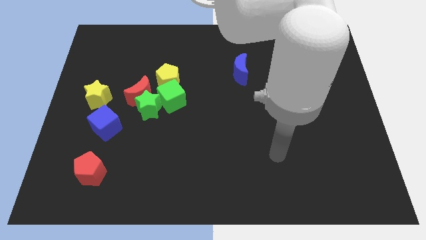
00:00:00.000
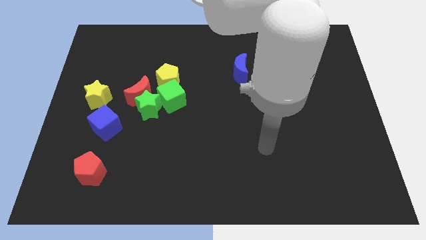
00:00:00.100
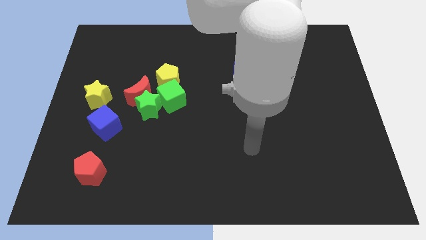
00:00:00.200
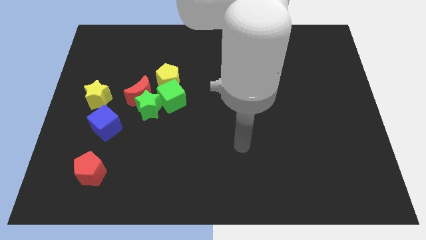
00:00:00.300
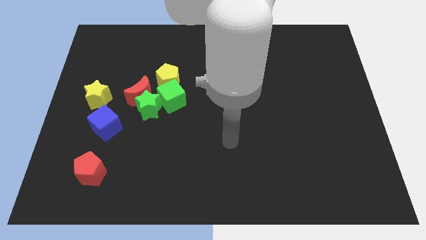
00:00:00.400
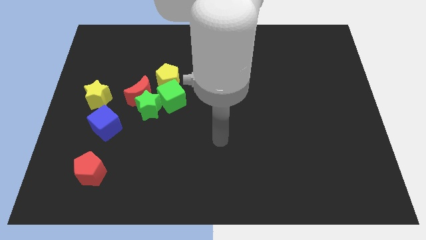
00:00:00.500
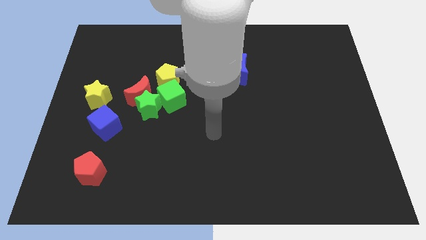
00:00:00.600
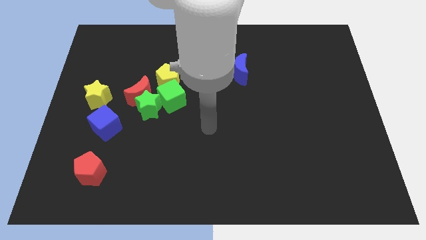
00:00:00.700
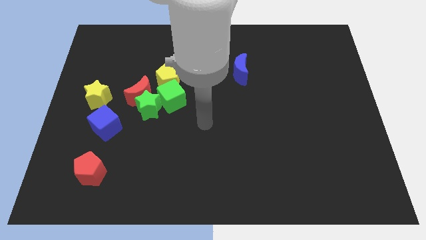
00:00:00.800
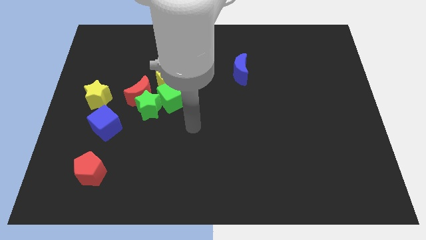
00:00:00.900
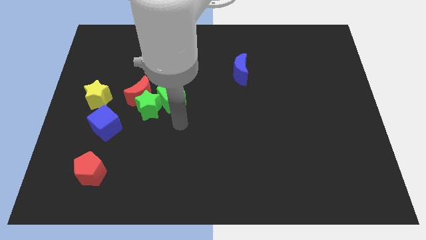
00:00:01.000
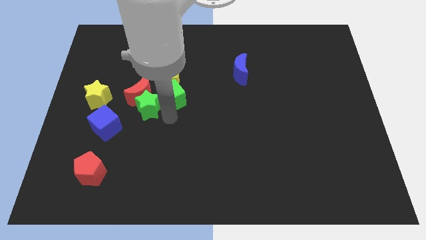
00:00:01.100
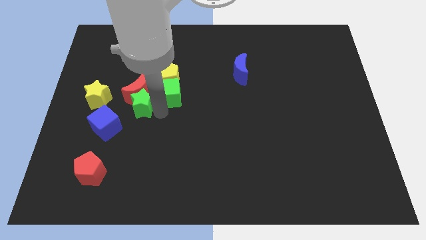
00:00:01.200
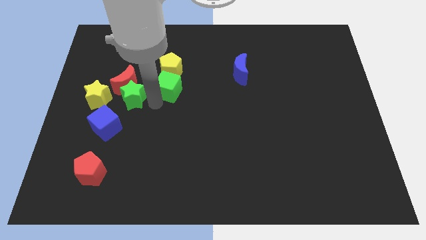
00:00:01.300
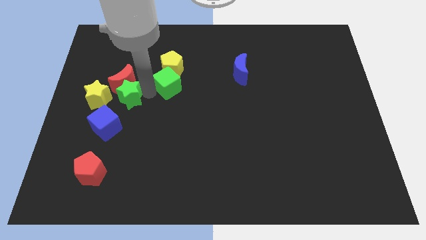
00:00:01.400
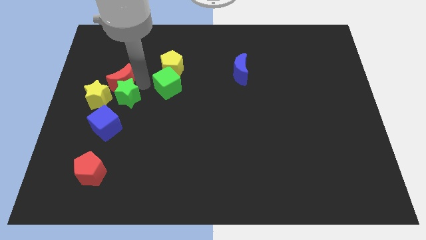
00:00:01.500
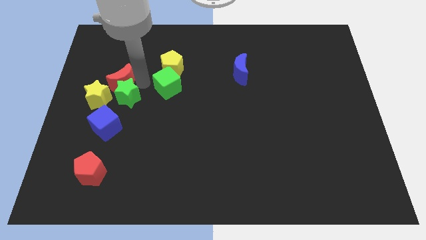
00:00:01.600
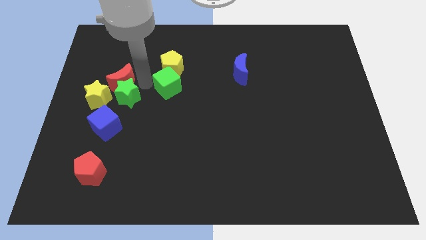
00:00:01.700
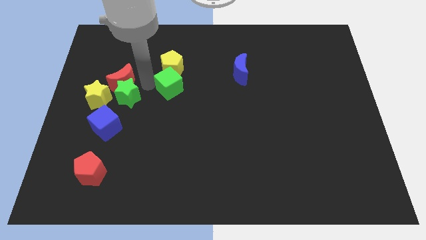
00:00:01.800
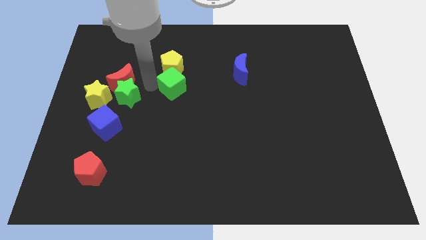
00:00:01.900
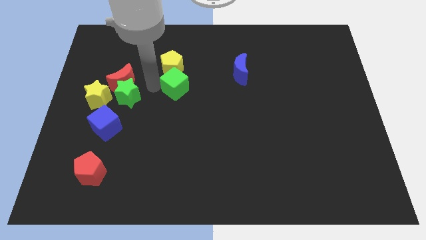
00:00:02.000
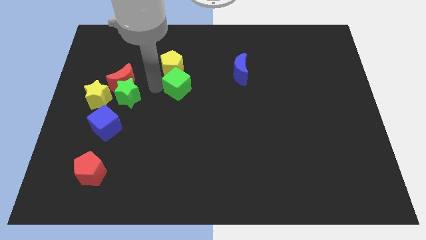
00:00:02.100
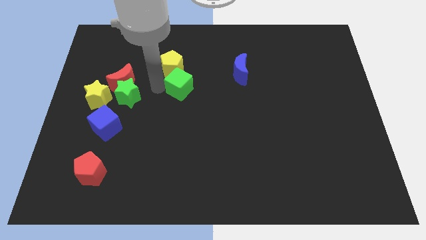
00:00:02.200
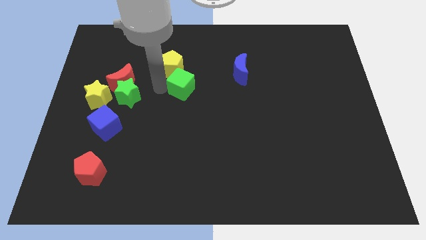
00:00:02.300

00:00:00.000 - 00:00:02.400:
move the green cube away from the green star, yellow pentagon, and red moon

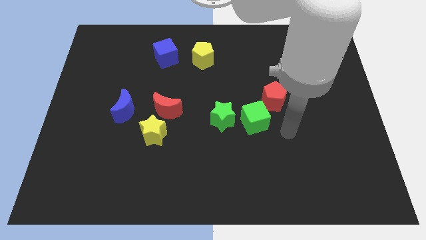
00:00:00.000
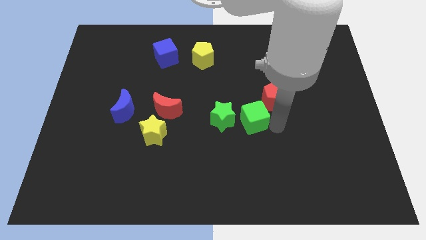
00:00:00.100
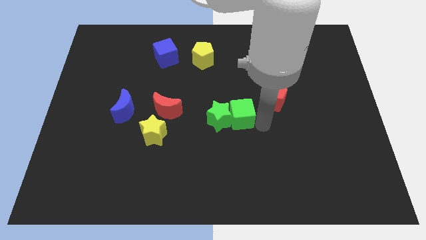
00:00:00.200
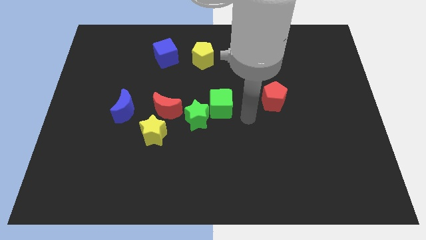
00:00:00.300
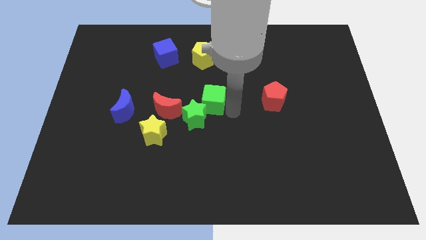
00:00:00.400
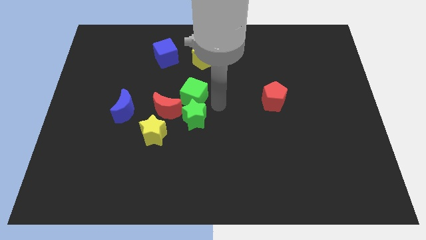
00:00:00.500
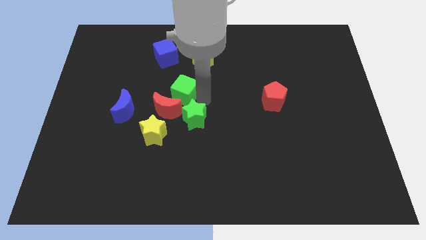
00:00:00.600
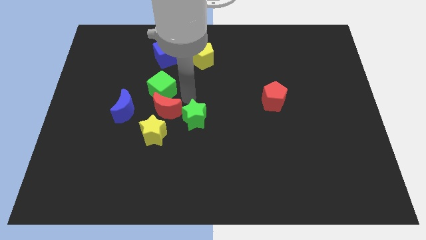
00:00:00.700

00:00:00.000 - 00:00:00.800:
pull the green star apart from the green cube

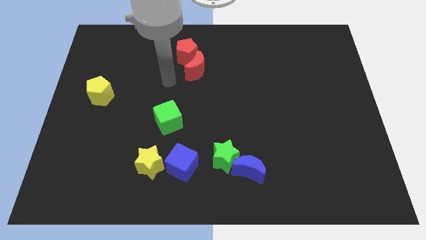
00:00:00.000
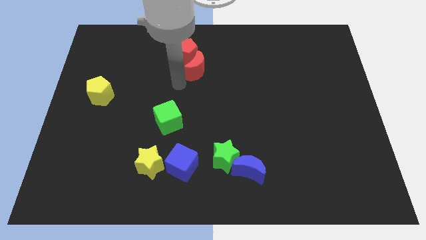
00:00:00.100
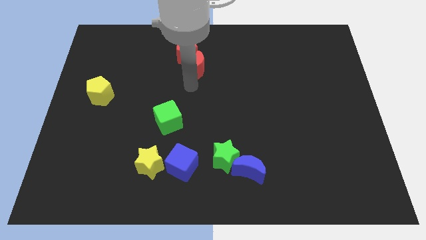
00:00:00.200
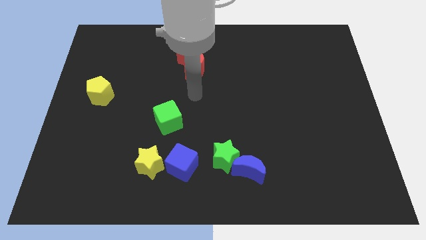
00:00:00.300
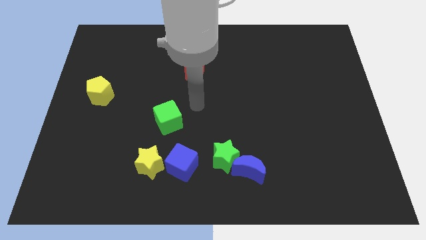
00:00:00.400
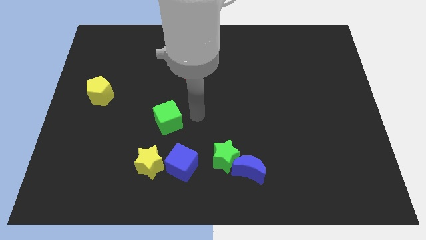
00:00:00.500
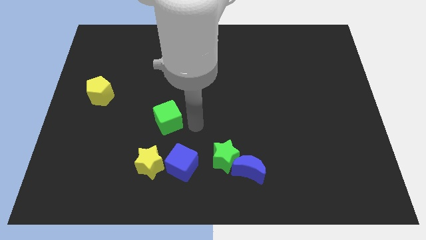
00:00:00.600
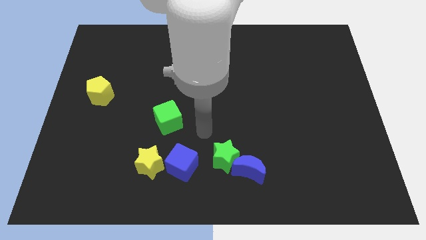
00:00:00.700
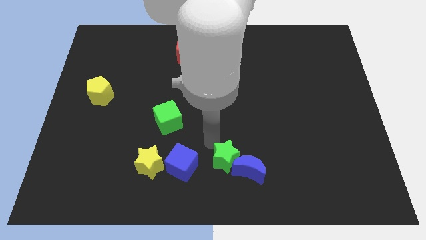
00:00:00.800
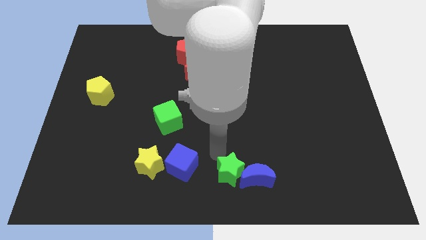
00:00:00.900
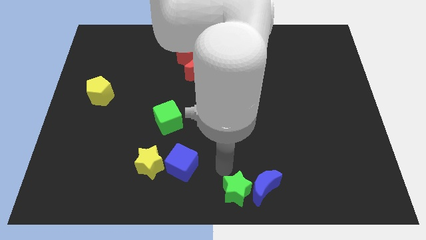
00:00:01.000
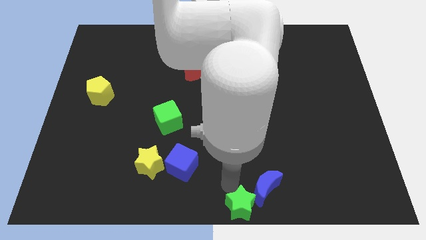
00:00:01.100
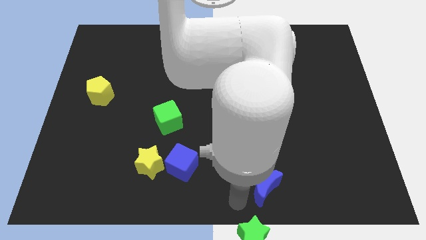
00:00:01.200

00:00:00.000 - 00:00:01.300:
separate the blue moon from the green star

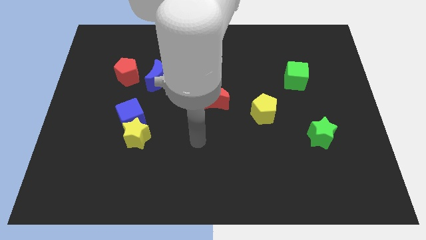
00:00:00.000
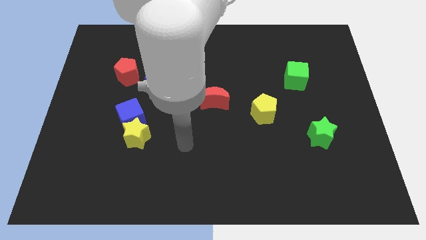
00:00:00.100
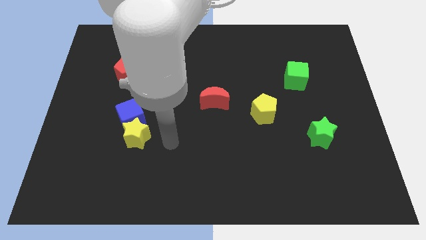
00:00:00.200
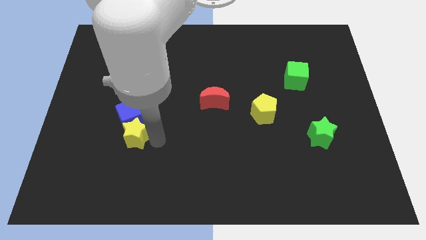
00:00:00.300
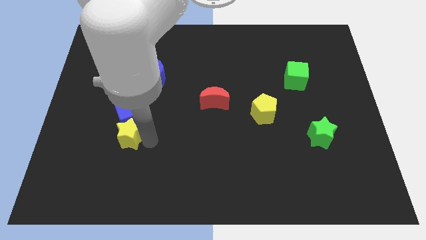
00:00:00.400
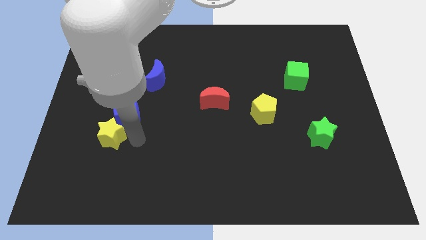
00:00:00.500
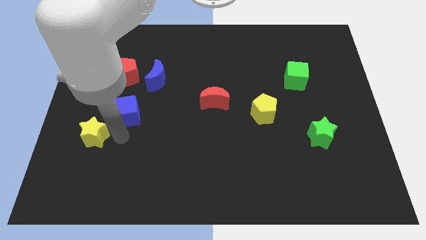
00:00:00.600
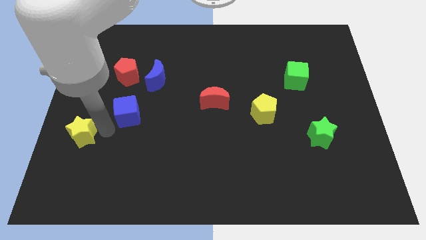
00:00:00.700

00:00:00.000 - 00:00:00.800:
separate the blue cube from the yellow star

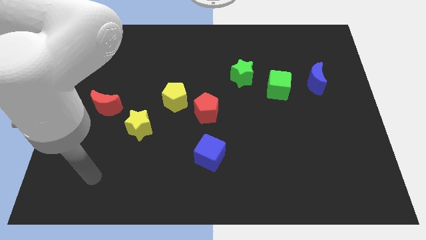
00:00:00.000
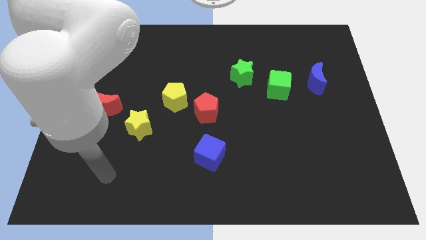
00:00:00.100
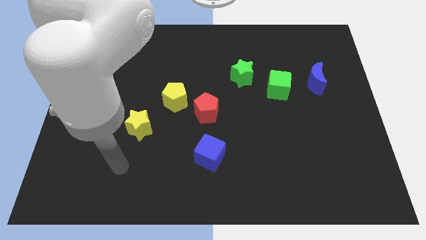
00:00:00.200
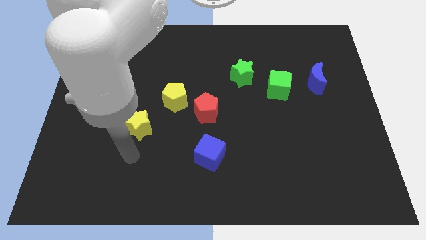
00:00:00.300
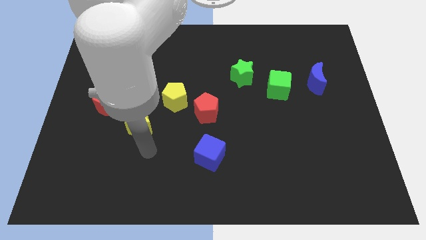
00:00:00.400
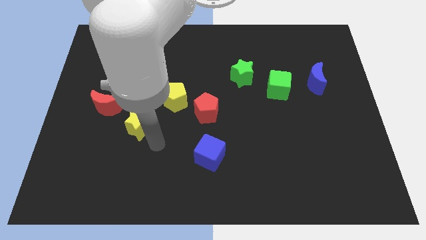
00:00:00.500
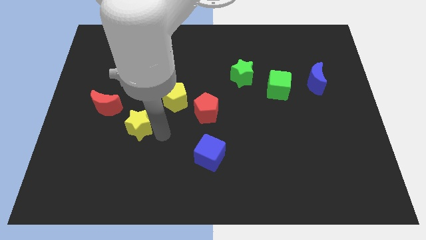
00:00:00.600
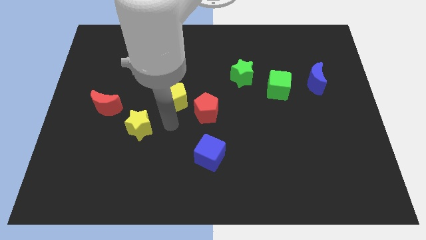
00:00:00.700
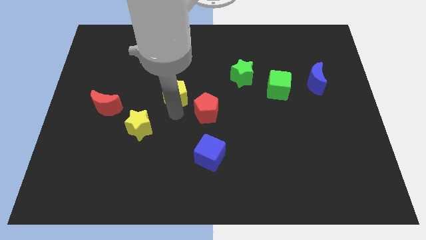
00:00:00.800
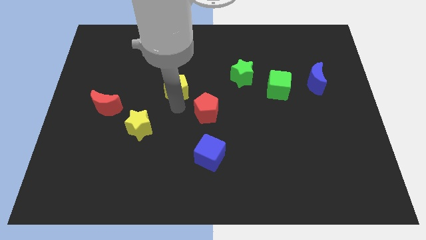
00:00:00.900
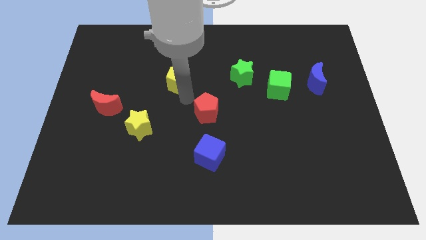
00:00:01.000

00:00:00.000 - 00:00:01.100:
move the red pentagon away from the yellow pentagon

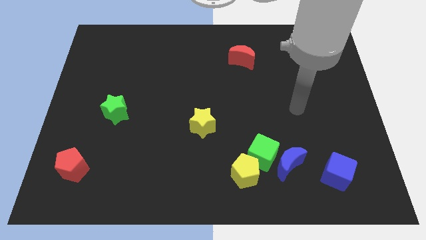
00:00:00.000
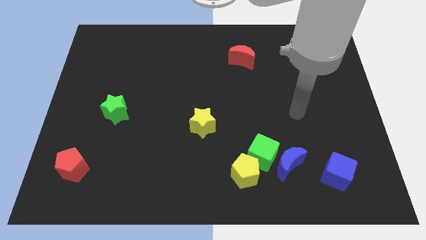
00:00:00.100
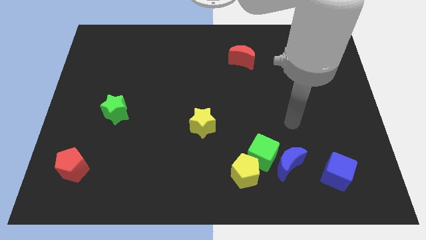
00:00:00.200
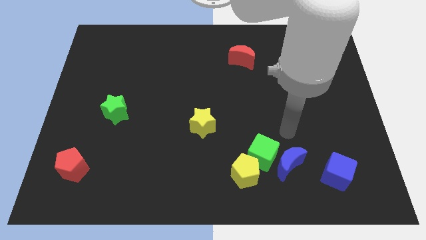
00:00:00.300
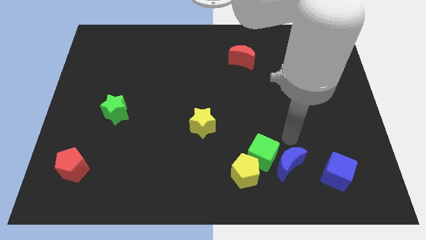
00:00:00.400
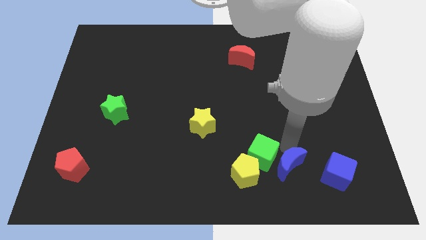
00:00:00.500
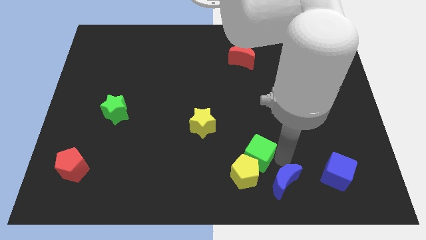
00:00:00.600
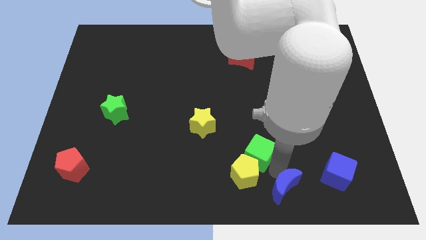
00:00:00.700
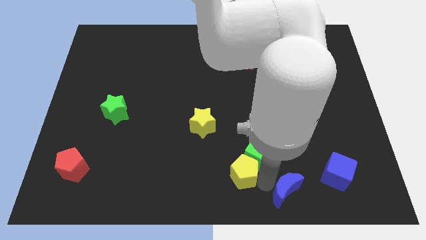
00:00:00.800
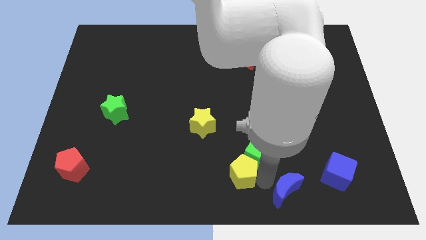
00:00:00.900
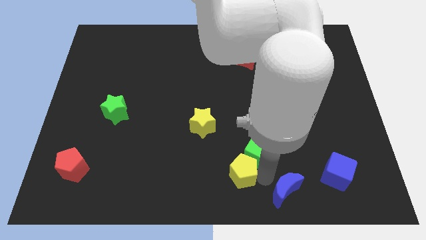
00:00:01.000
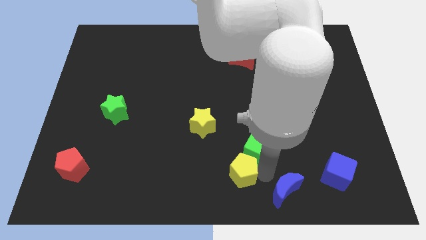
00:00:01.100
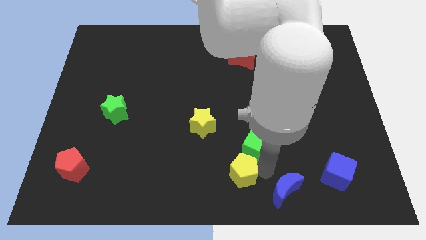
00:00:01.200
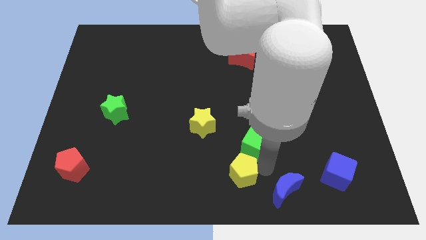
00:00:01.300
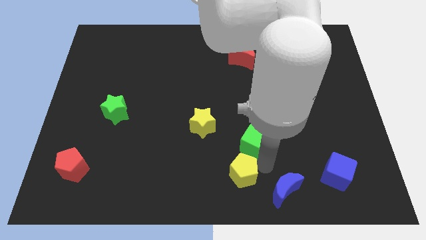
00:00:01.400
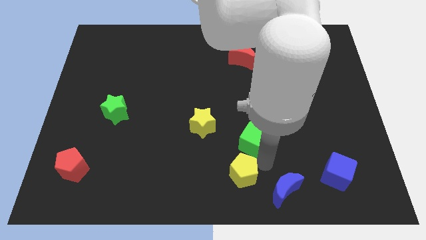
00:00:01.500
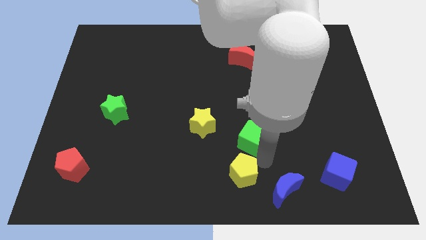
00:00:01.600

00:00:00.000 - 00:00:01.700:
separate the green cube from the blue moon and yellow pentagon

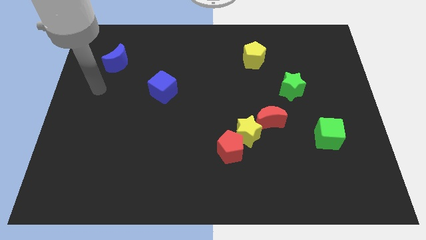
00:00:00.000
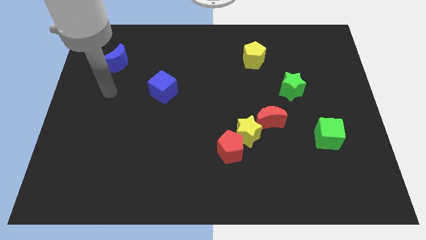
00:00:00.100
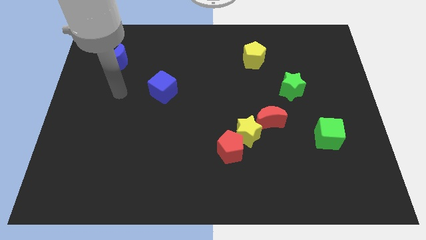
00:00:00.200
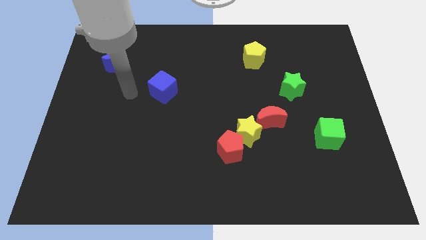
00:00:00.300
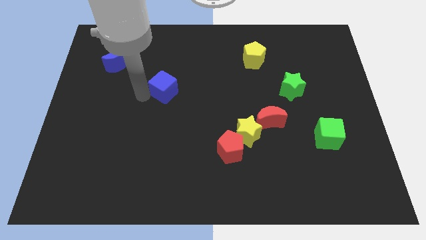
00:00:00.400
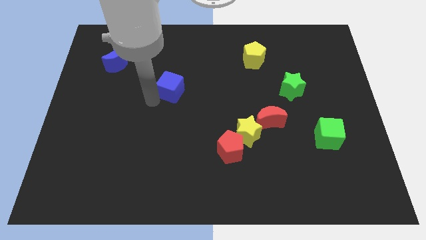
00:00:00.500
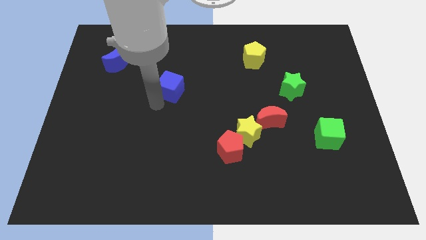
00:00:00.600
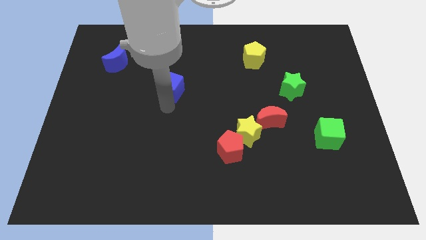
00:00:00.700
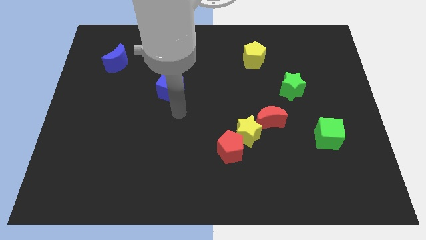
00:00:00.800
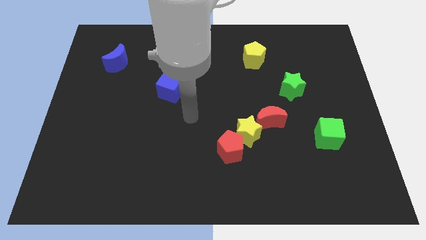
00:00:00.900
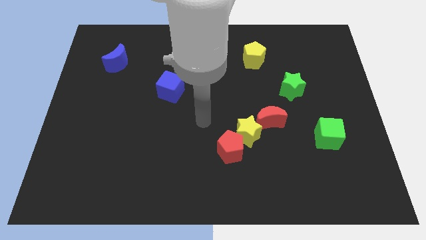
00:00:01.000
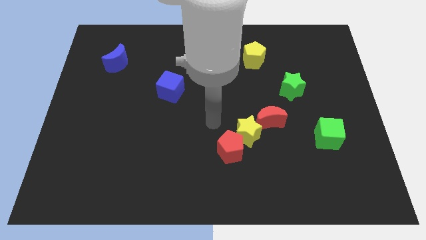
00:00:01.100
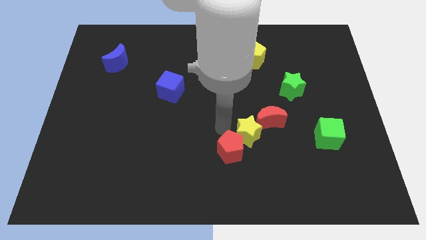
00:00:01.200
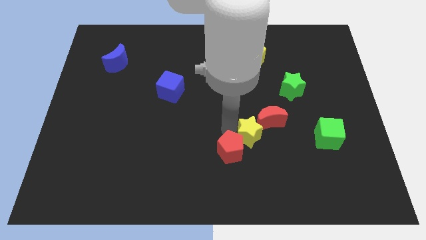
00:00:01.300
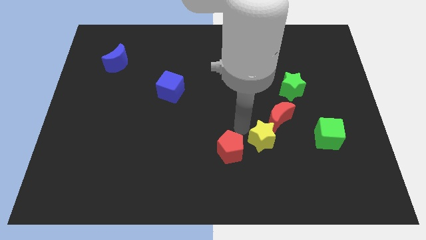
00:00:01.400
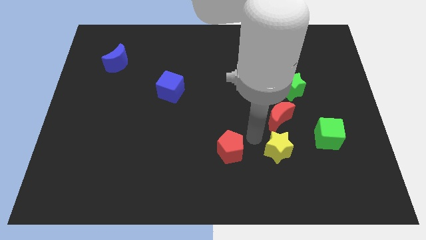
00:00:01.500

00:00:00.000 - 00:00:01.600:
pull the red pentagon apart from the yellow star
